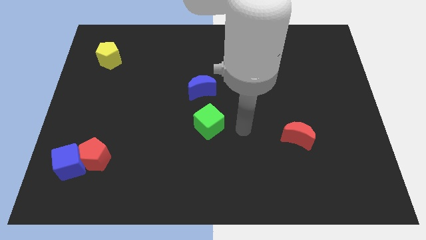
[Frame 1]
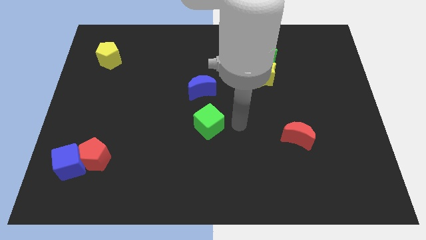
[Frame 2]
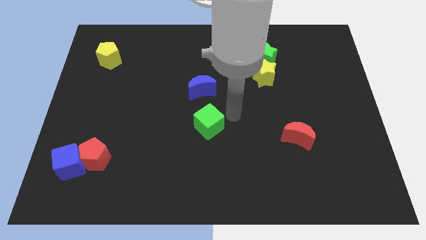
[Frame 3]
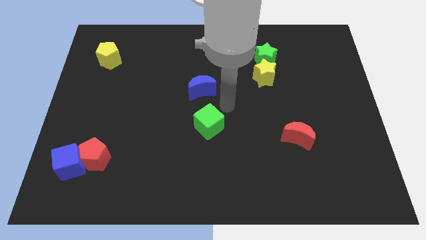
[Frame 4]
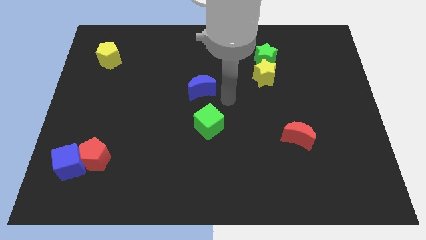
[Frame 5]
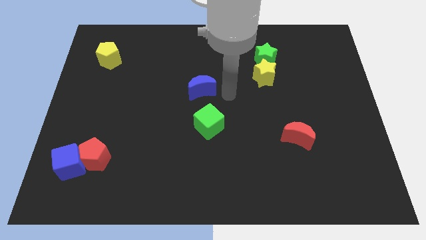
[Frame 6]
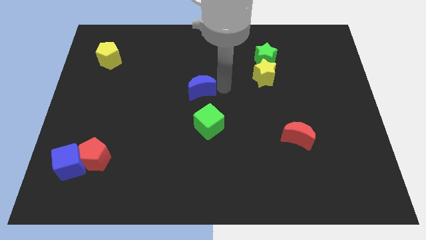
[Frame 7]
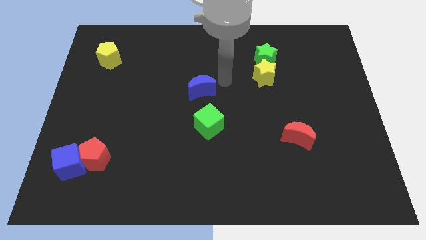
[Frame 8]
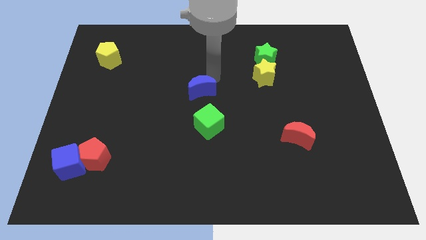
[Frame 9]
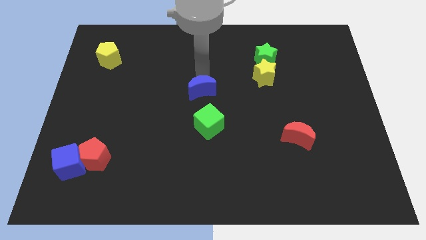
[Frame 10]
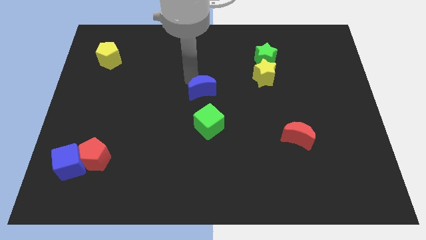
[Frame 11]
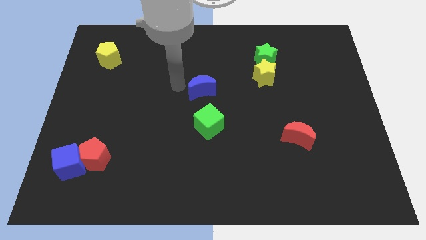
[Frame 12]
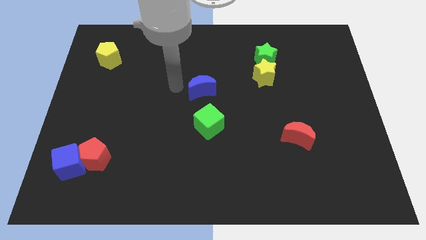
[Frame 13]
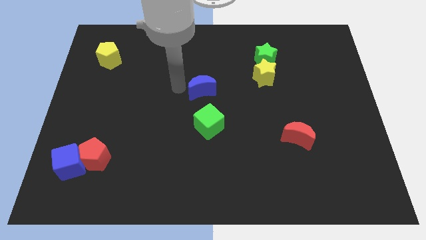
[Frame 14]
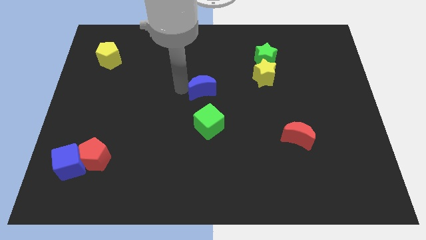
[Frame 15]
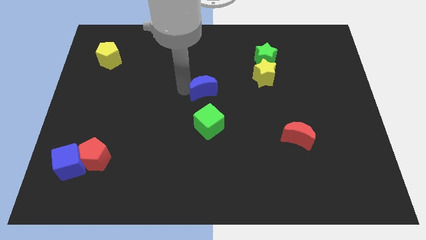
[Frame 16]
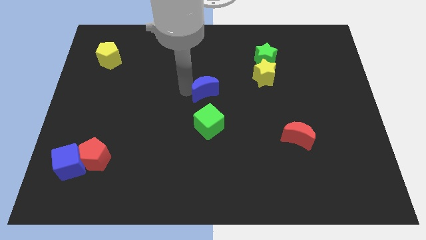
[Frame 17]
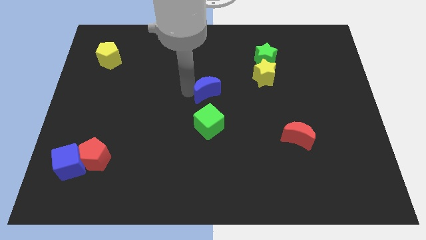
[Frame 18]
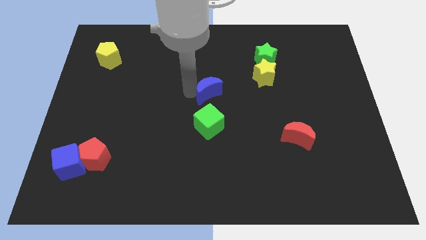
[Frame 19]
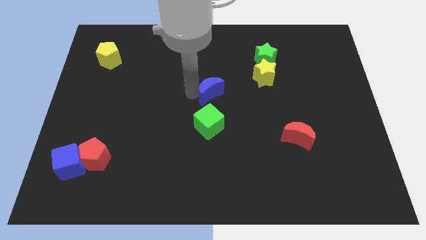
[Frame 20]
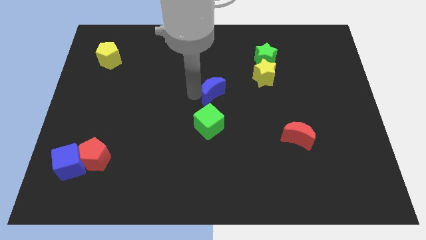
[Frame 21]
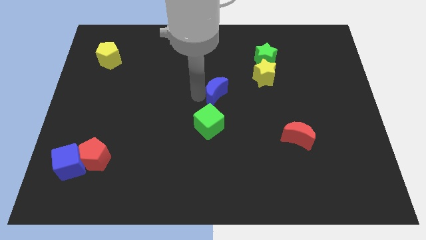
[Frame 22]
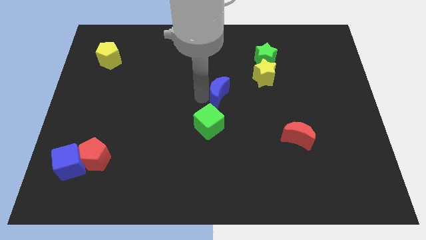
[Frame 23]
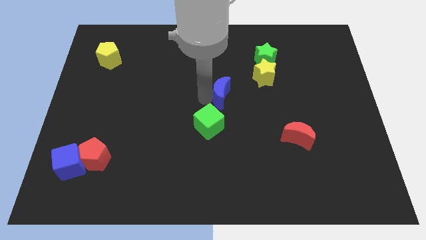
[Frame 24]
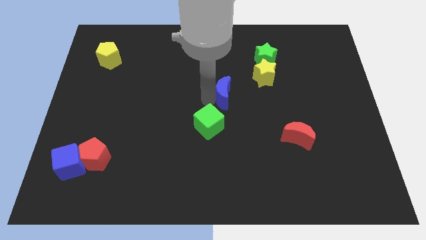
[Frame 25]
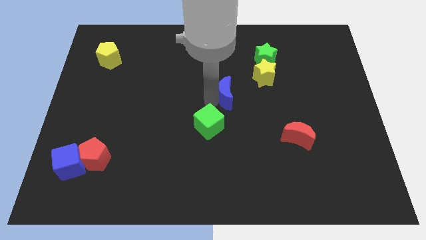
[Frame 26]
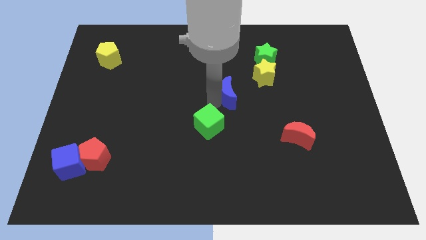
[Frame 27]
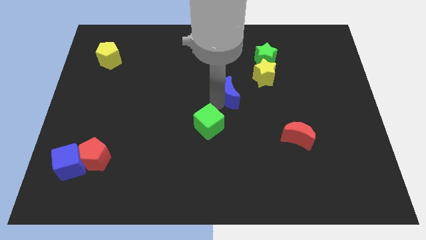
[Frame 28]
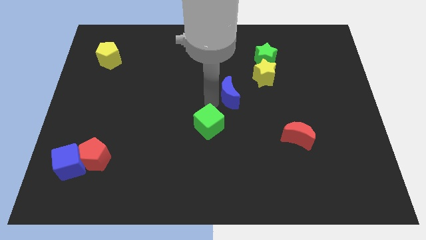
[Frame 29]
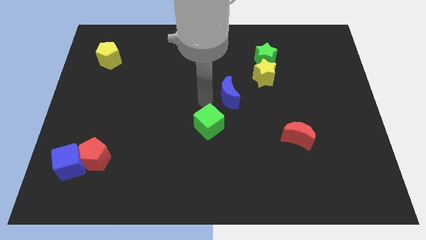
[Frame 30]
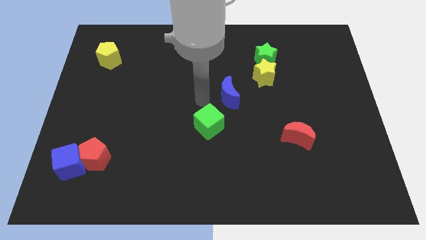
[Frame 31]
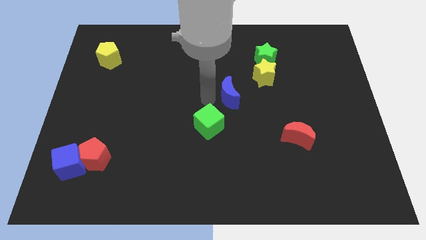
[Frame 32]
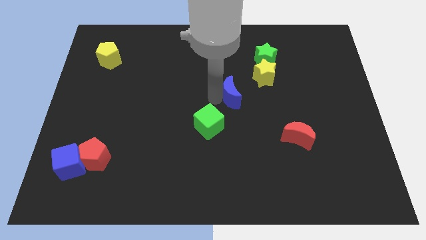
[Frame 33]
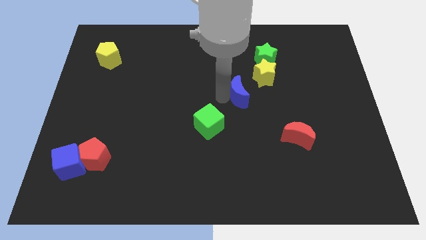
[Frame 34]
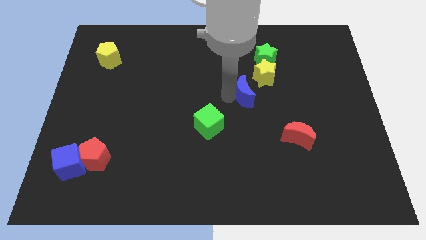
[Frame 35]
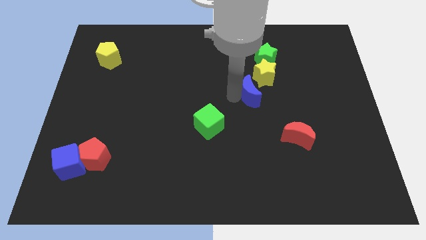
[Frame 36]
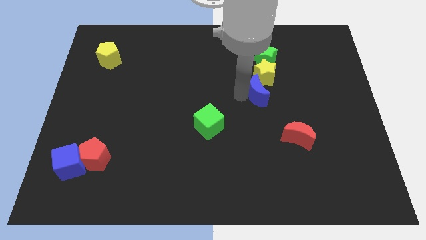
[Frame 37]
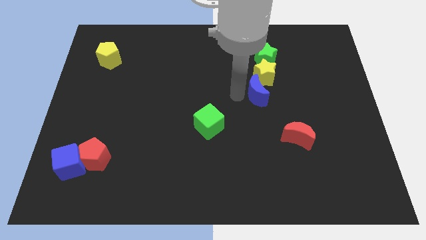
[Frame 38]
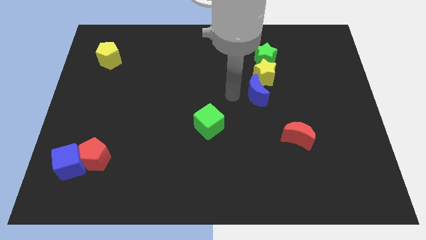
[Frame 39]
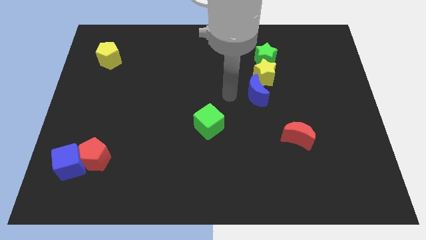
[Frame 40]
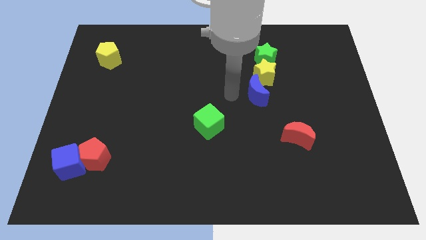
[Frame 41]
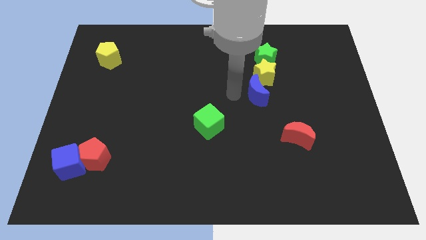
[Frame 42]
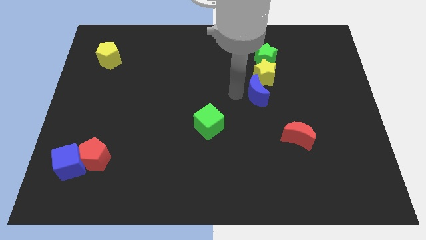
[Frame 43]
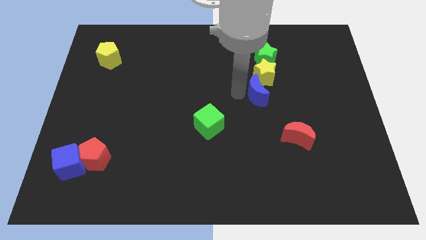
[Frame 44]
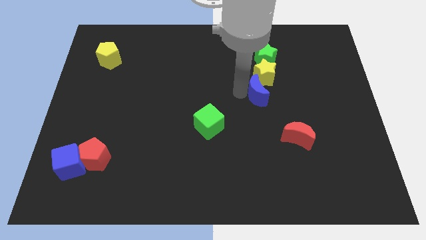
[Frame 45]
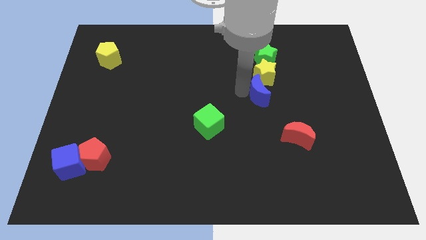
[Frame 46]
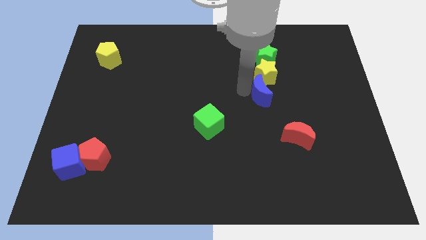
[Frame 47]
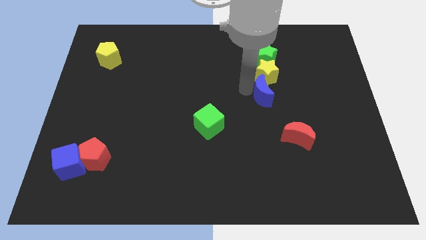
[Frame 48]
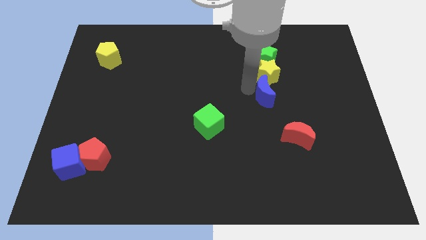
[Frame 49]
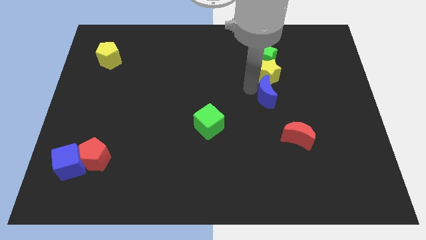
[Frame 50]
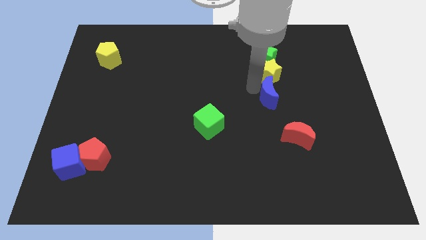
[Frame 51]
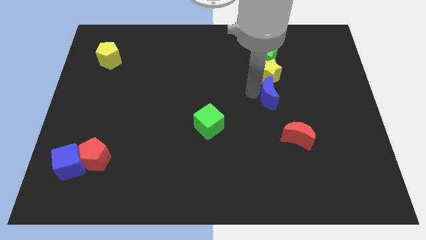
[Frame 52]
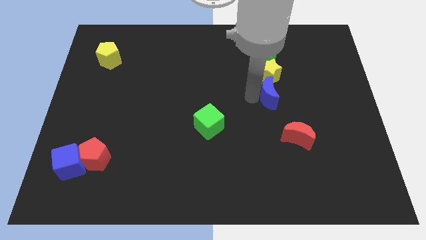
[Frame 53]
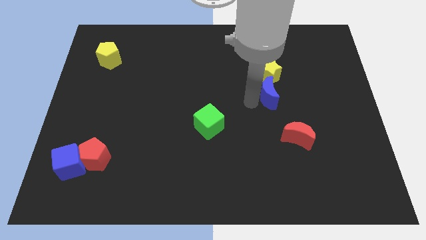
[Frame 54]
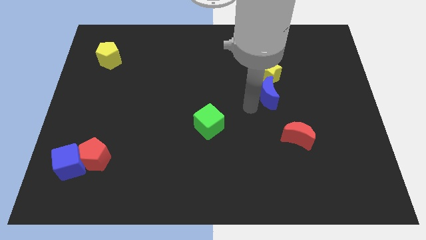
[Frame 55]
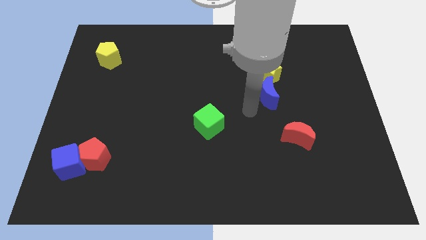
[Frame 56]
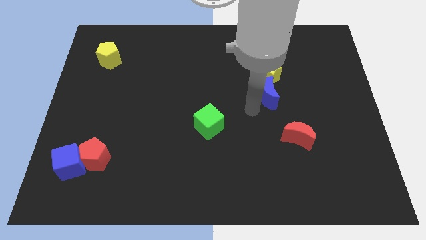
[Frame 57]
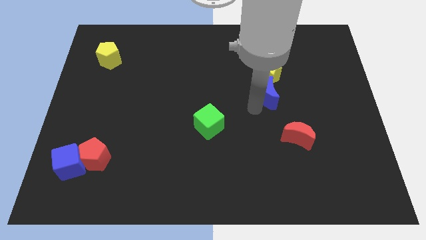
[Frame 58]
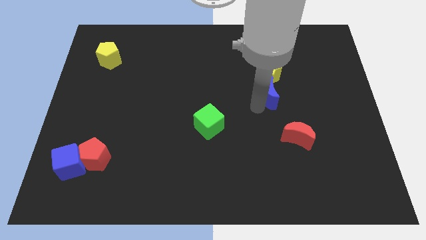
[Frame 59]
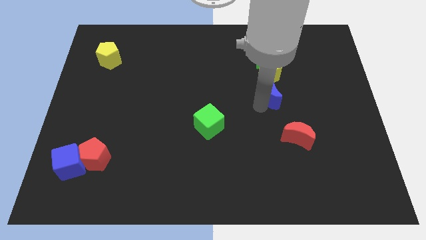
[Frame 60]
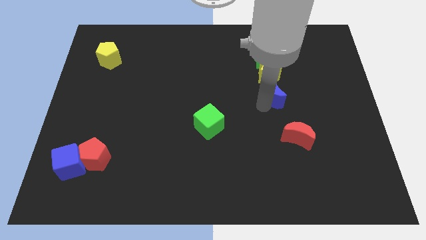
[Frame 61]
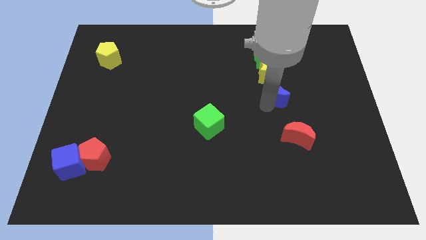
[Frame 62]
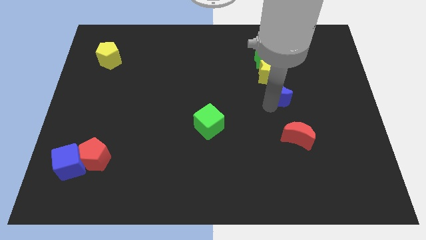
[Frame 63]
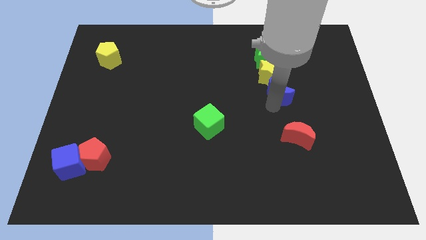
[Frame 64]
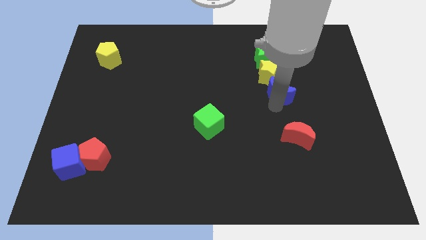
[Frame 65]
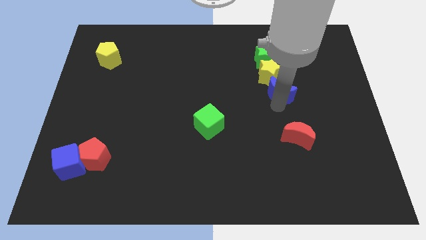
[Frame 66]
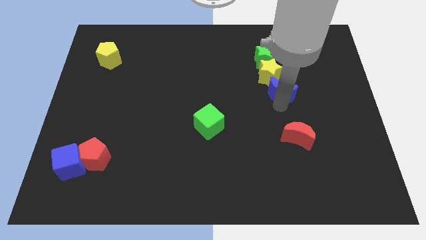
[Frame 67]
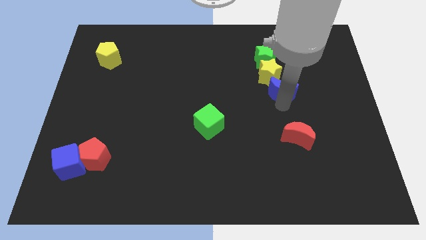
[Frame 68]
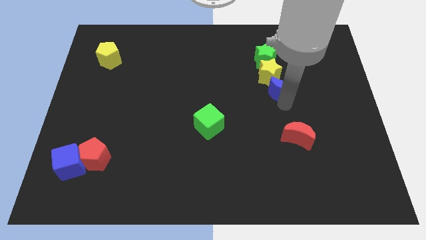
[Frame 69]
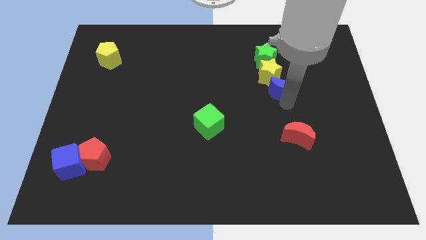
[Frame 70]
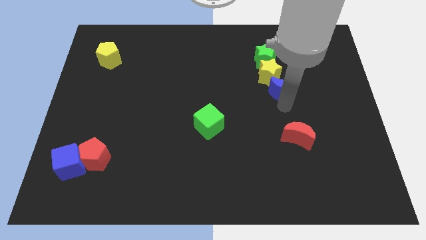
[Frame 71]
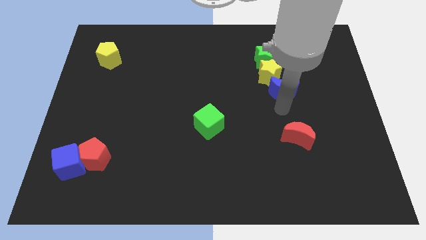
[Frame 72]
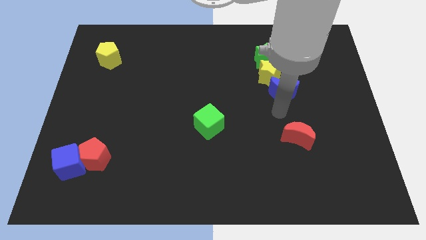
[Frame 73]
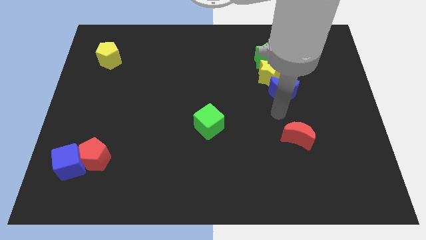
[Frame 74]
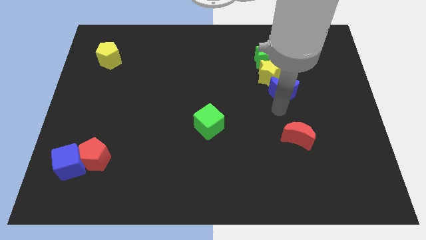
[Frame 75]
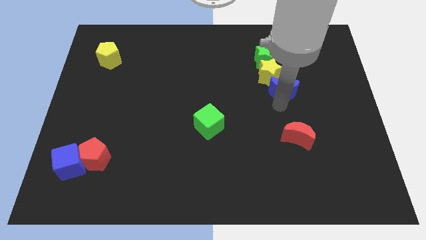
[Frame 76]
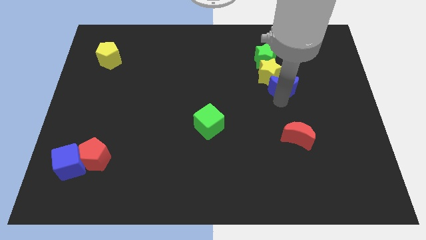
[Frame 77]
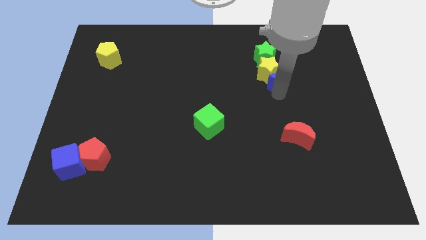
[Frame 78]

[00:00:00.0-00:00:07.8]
move the blue moon to the right side of the yellow star

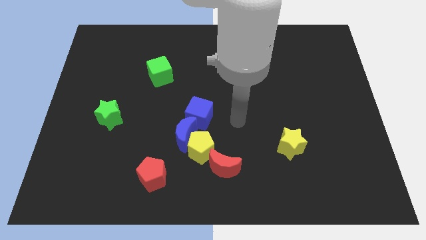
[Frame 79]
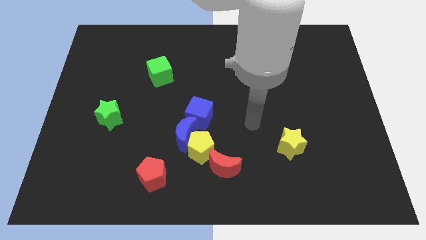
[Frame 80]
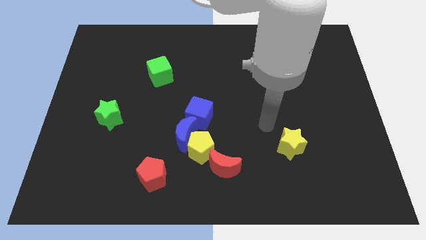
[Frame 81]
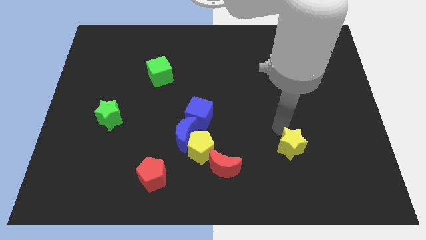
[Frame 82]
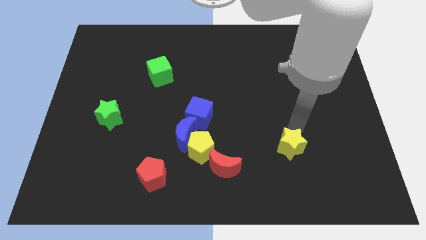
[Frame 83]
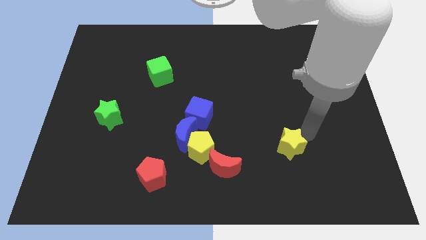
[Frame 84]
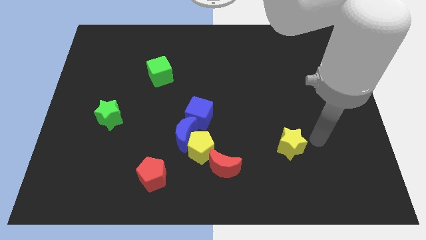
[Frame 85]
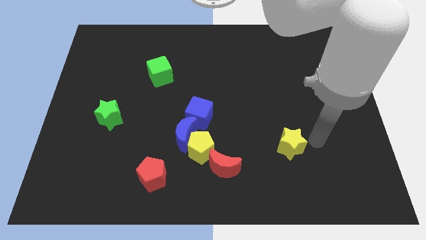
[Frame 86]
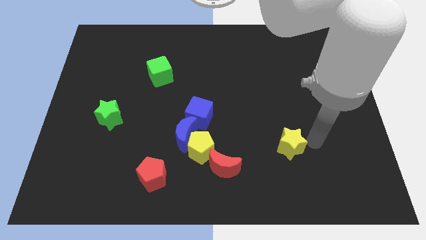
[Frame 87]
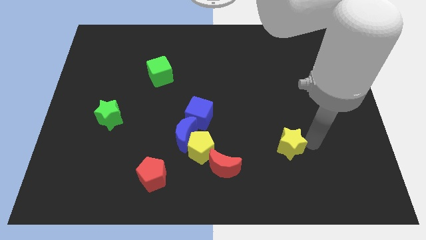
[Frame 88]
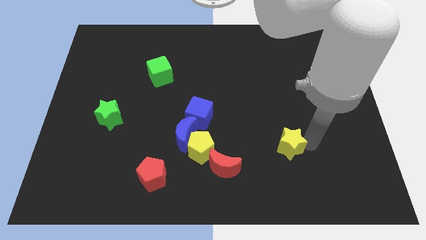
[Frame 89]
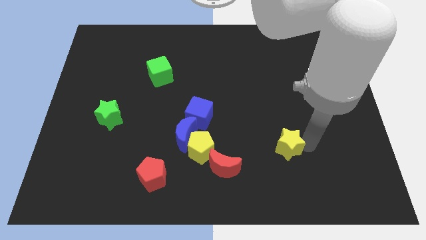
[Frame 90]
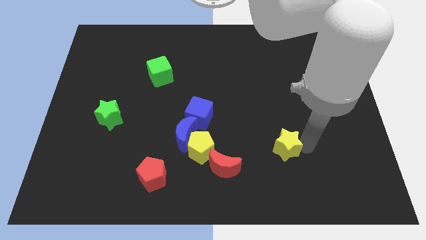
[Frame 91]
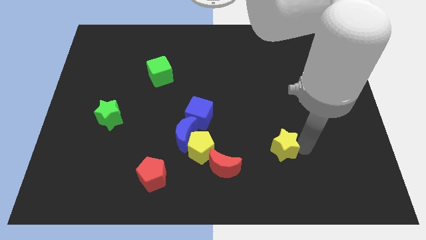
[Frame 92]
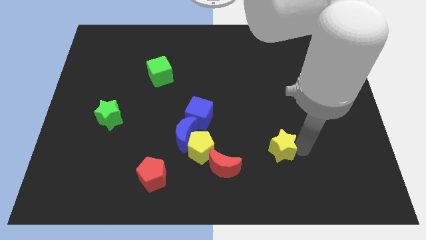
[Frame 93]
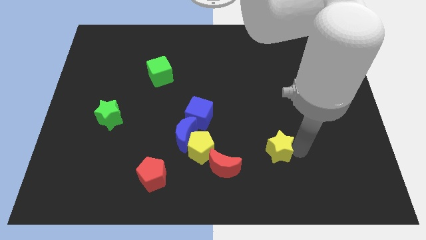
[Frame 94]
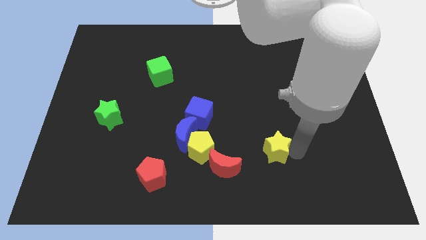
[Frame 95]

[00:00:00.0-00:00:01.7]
put the yellow star to the right of the yellow pentagon
